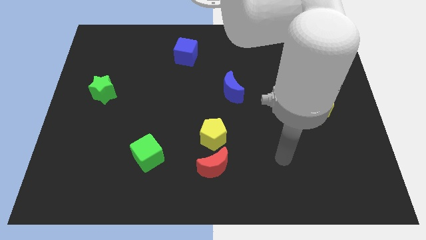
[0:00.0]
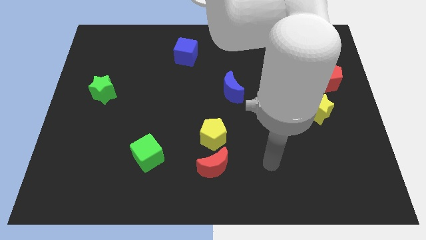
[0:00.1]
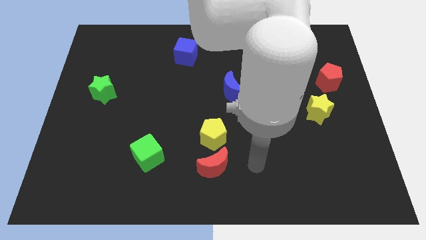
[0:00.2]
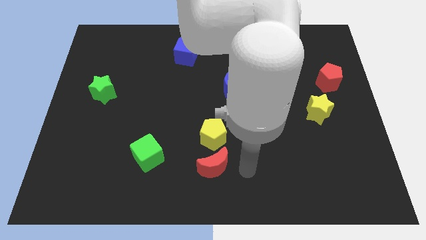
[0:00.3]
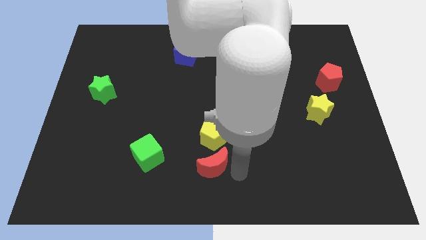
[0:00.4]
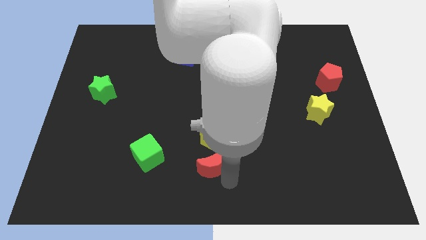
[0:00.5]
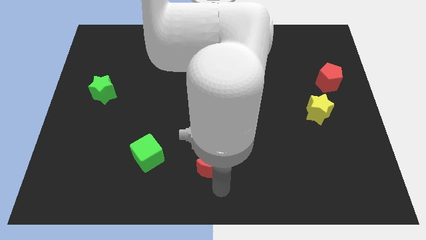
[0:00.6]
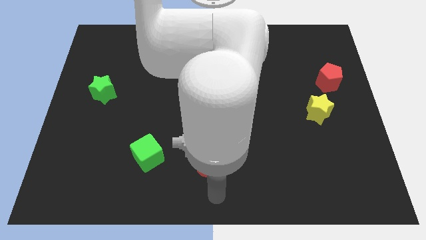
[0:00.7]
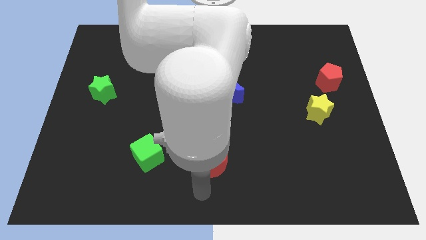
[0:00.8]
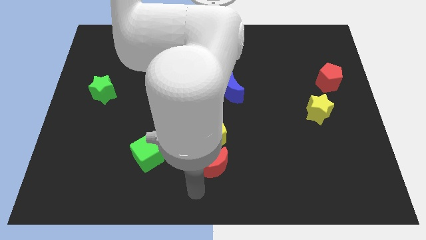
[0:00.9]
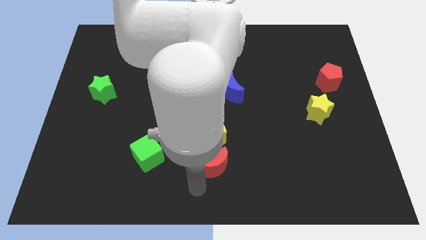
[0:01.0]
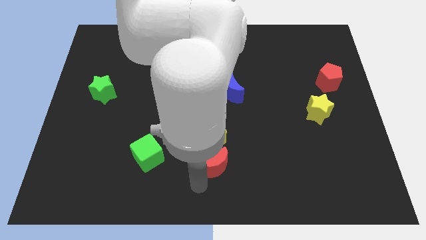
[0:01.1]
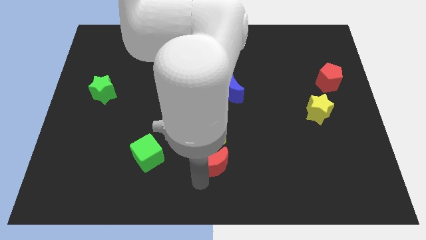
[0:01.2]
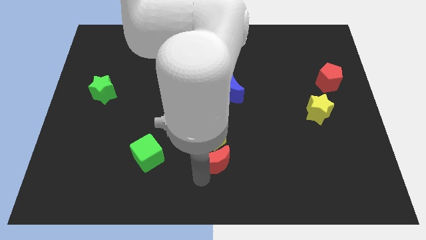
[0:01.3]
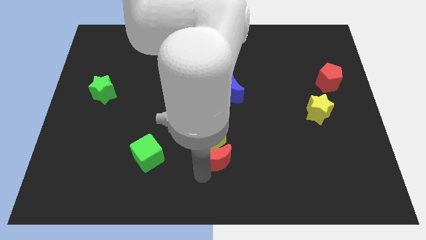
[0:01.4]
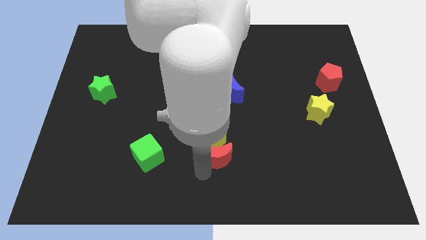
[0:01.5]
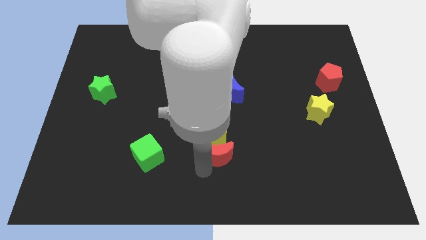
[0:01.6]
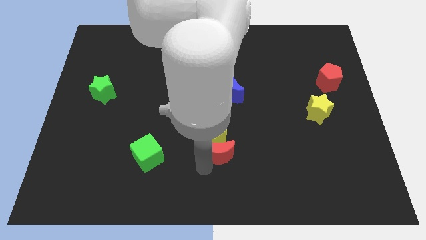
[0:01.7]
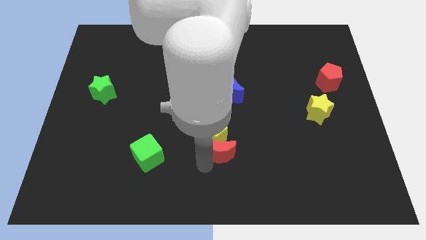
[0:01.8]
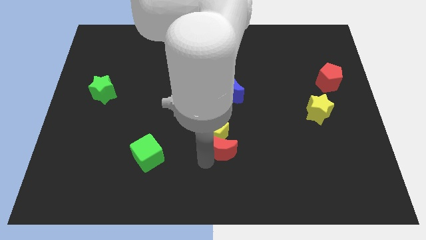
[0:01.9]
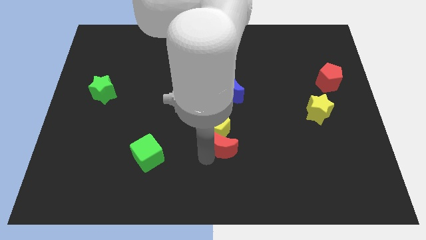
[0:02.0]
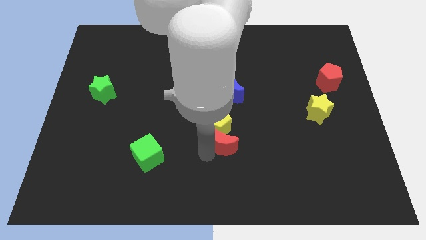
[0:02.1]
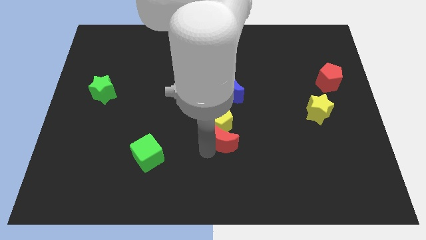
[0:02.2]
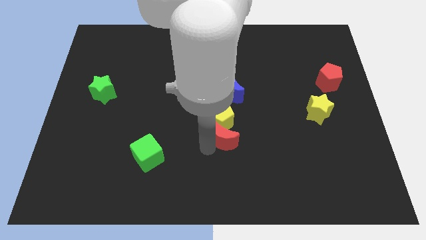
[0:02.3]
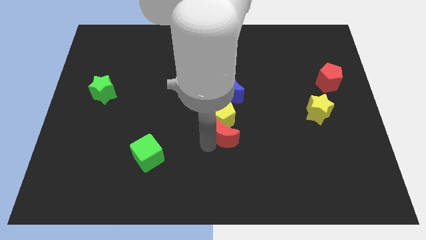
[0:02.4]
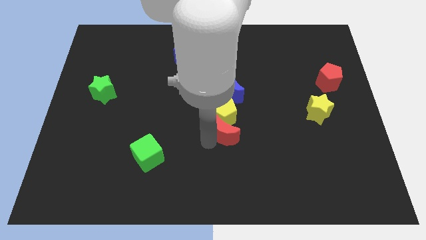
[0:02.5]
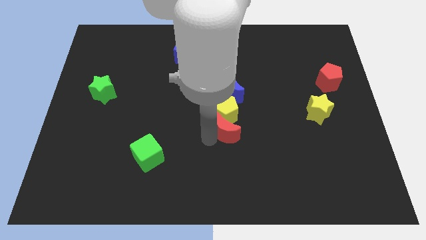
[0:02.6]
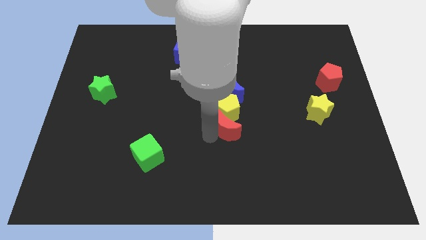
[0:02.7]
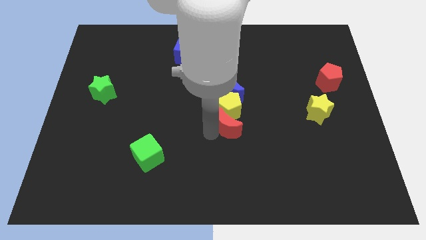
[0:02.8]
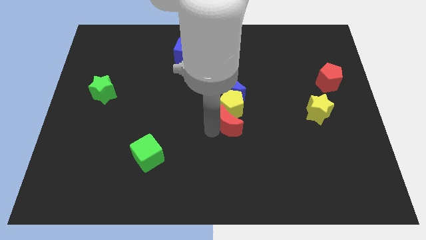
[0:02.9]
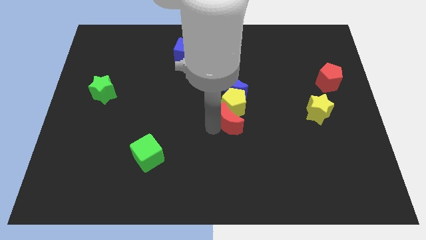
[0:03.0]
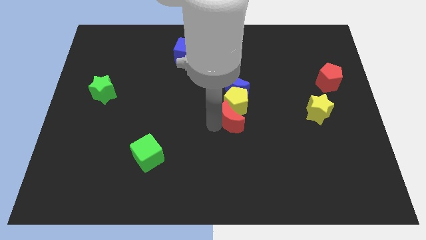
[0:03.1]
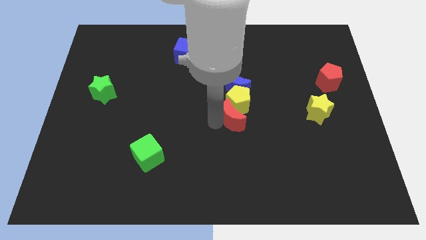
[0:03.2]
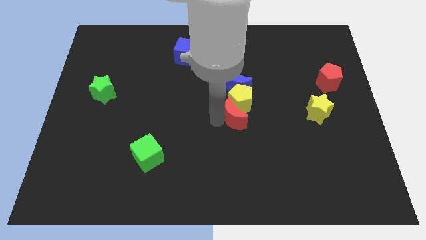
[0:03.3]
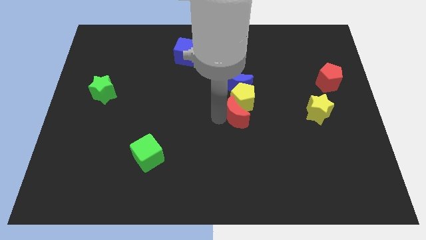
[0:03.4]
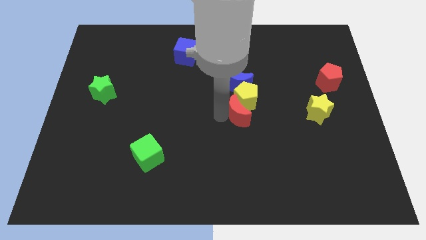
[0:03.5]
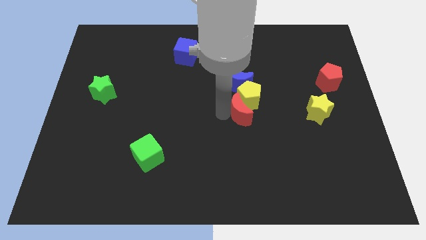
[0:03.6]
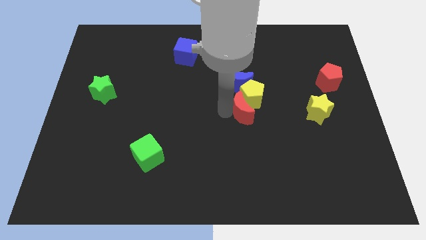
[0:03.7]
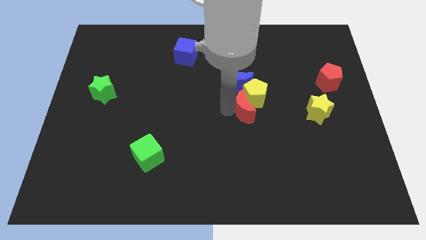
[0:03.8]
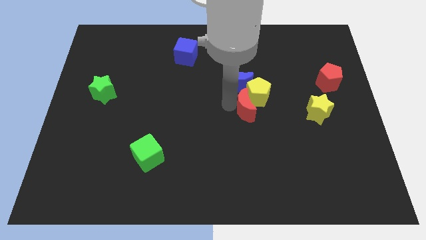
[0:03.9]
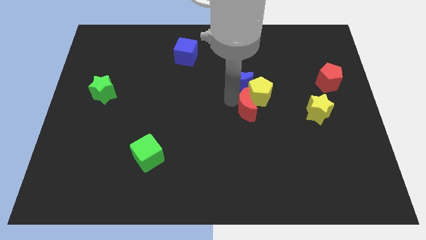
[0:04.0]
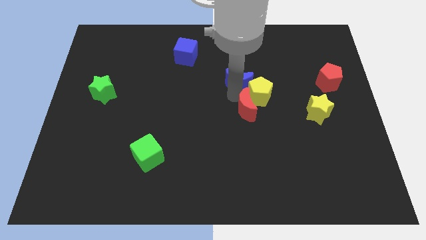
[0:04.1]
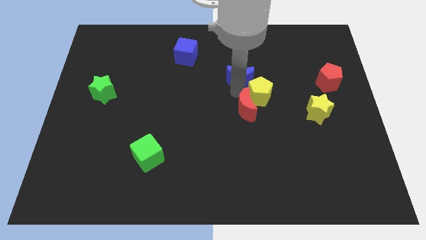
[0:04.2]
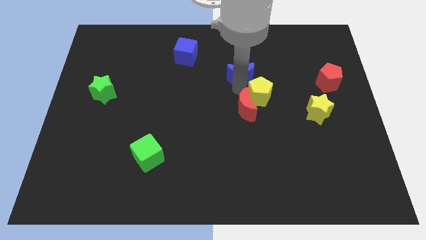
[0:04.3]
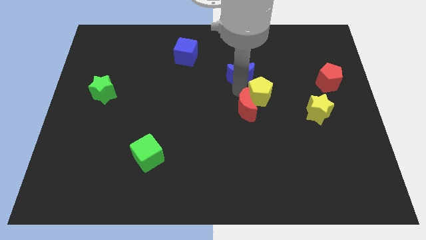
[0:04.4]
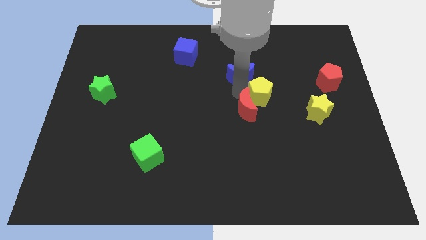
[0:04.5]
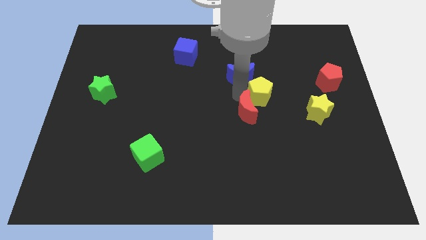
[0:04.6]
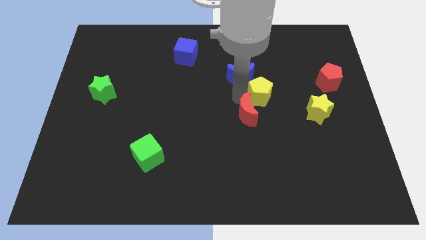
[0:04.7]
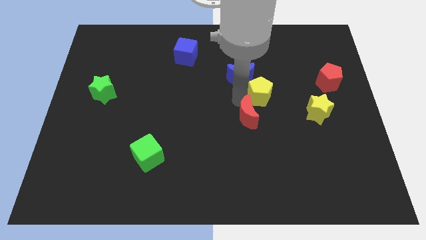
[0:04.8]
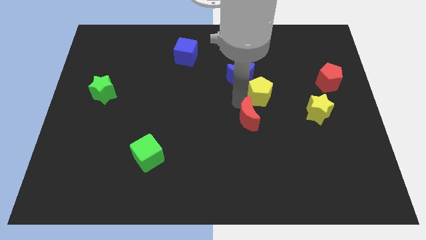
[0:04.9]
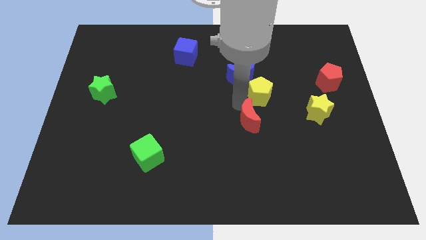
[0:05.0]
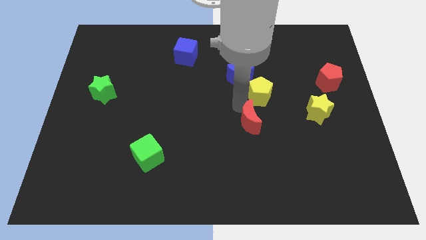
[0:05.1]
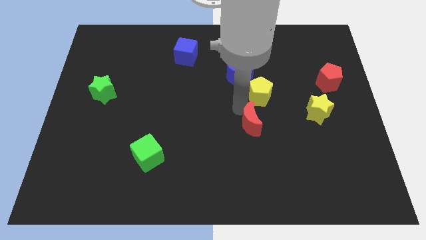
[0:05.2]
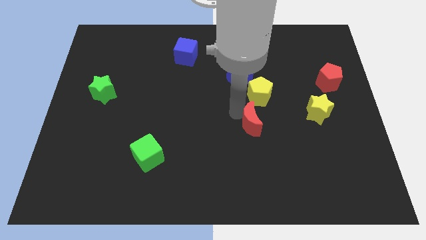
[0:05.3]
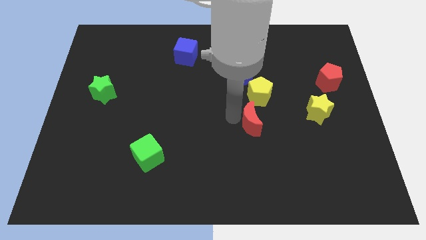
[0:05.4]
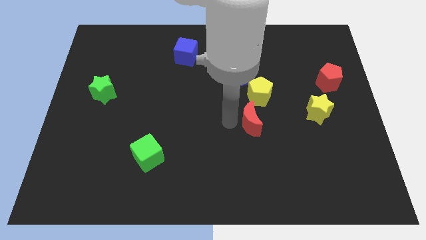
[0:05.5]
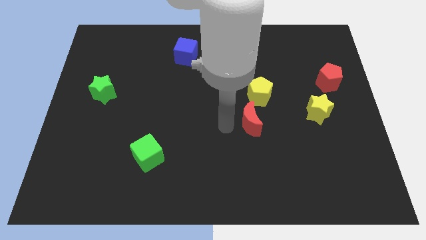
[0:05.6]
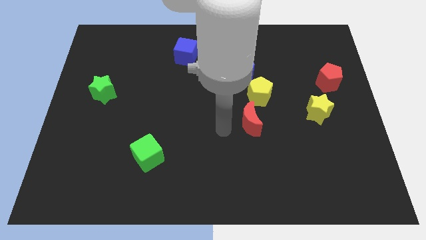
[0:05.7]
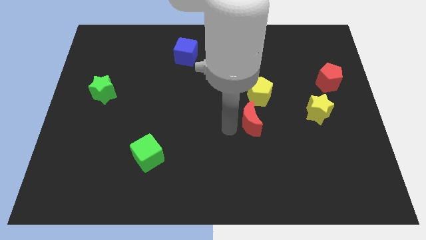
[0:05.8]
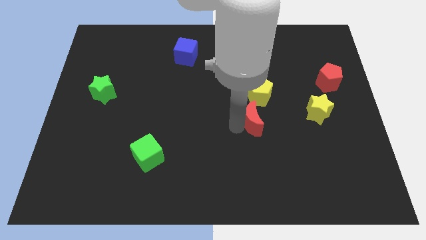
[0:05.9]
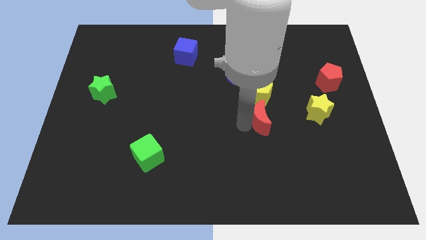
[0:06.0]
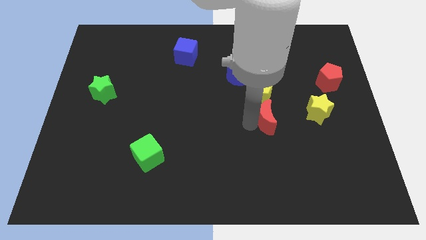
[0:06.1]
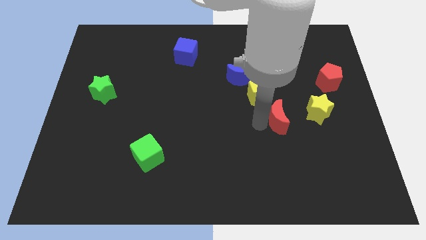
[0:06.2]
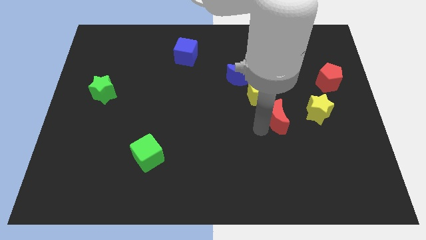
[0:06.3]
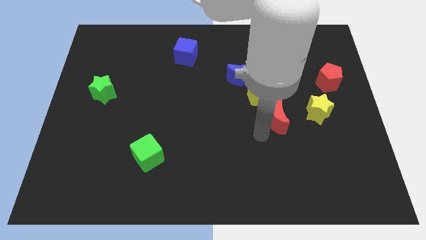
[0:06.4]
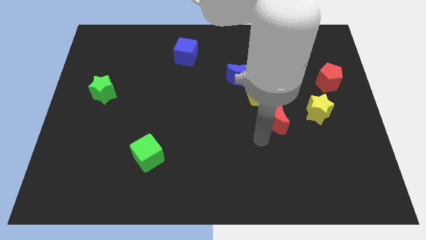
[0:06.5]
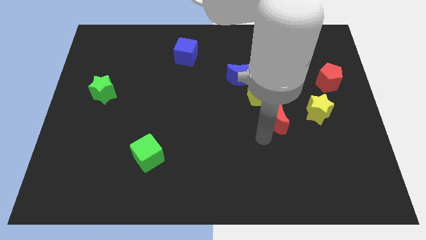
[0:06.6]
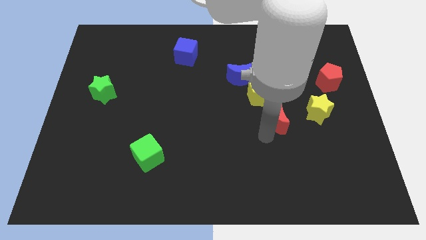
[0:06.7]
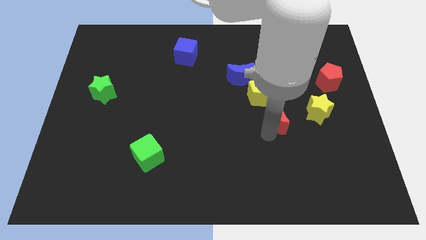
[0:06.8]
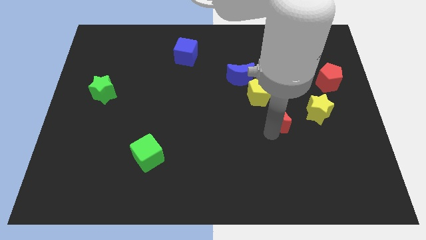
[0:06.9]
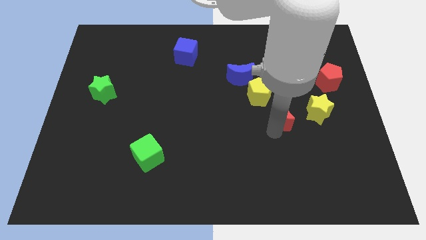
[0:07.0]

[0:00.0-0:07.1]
slide the red moon upwards and then to the right

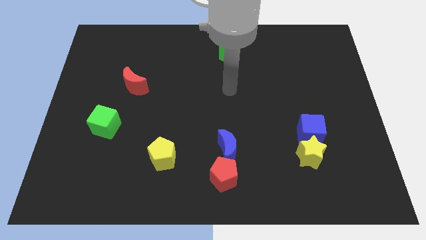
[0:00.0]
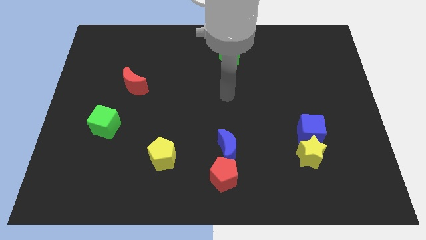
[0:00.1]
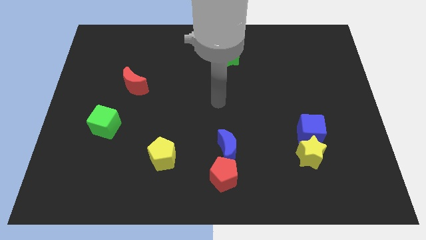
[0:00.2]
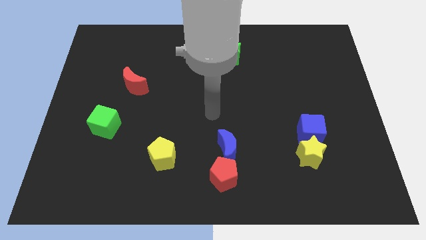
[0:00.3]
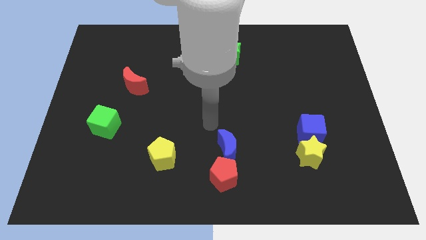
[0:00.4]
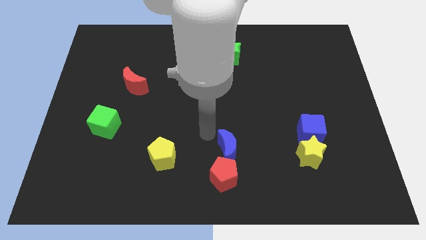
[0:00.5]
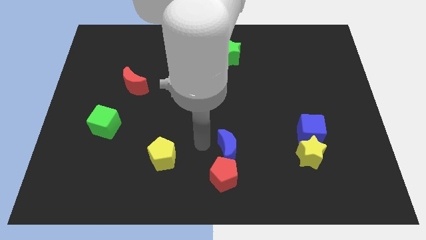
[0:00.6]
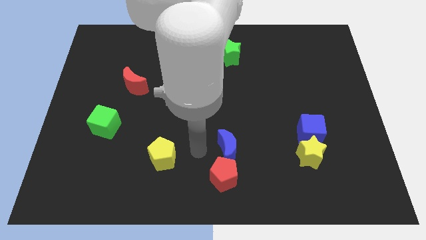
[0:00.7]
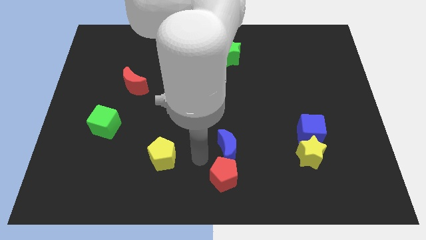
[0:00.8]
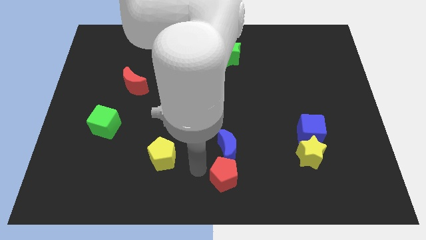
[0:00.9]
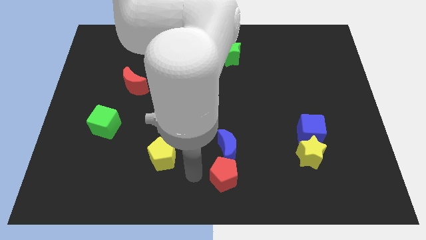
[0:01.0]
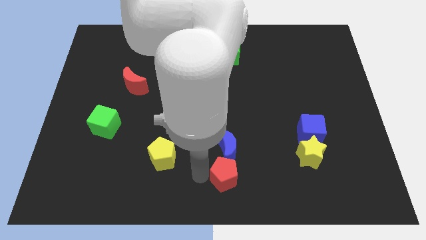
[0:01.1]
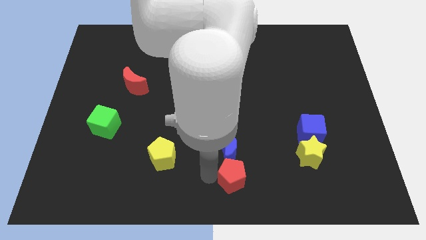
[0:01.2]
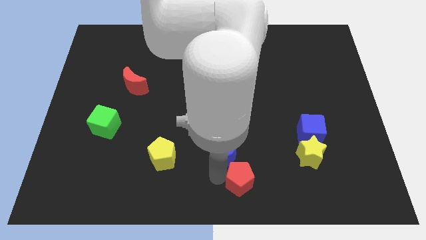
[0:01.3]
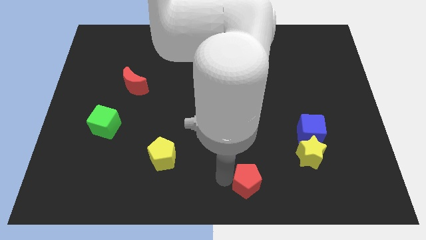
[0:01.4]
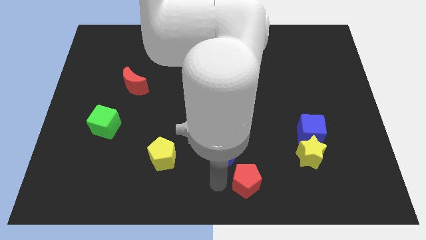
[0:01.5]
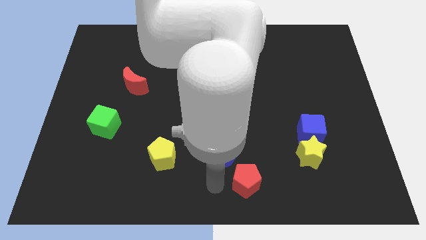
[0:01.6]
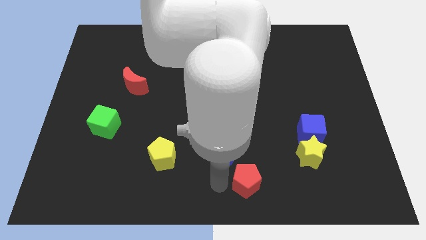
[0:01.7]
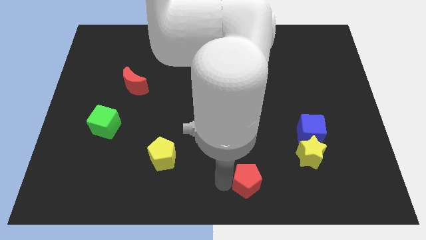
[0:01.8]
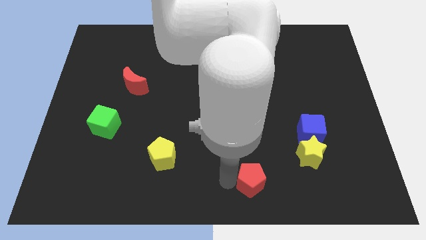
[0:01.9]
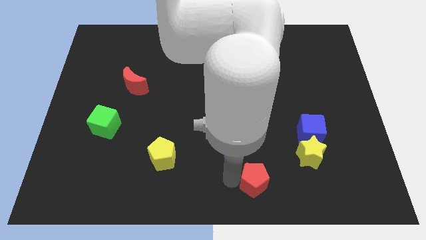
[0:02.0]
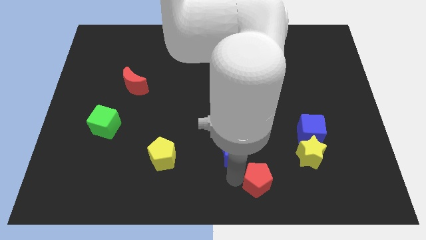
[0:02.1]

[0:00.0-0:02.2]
slide the red pentagon somewhat right
